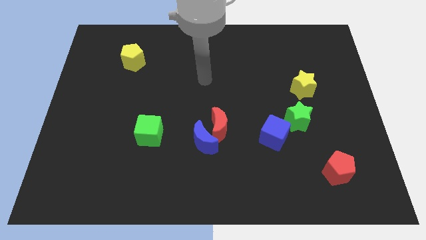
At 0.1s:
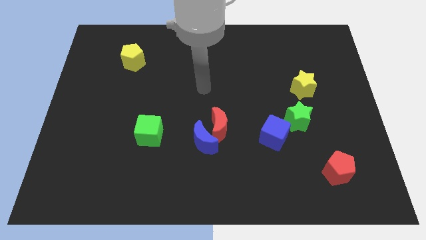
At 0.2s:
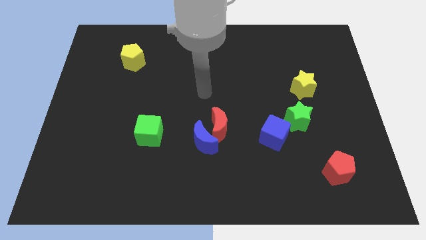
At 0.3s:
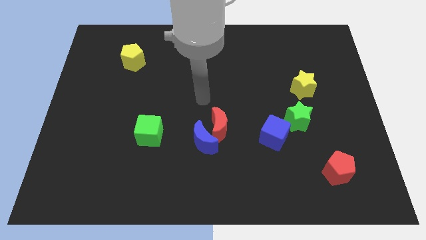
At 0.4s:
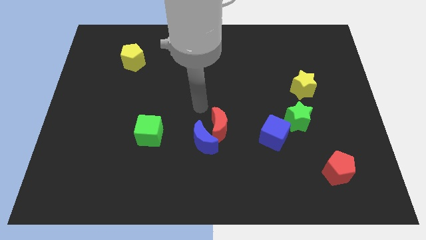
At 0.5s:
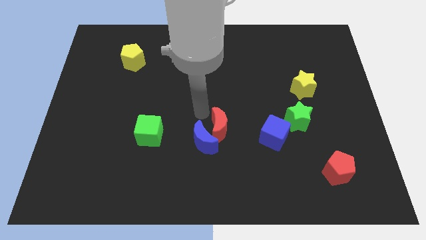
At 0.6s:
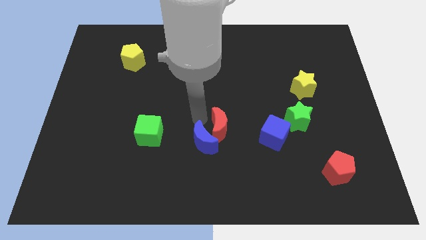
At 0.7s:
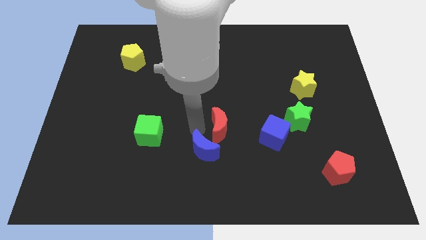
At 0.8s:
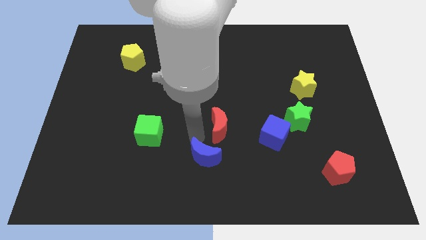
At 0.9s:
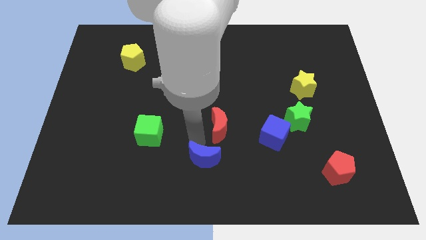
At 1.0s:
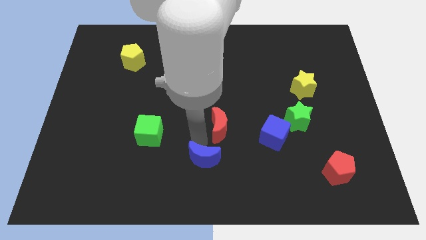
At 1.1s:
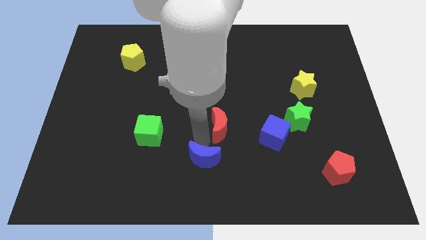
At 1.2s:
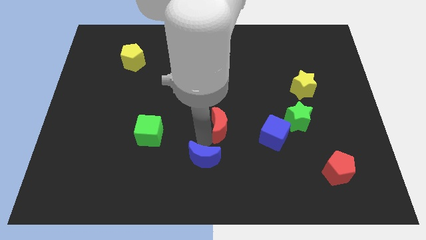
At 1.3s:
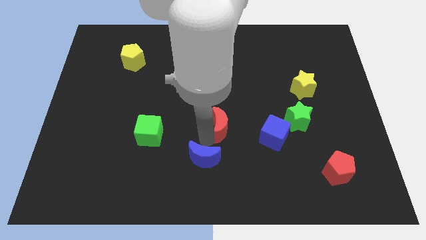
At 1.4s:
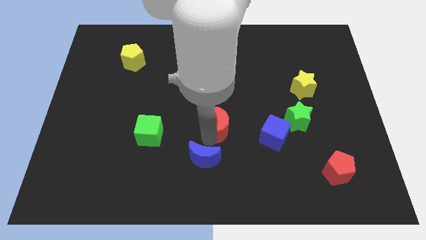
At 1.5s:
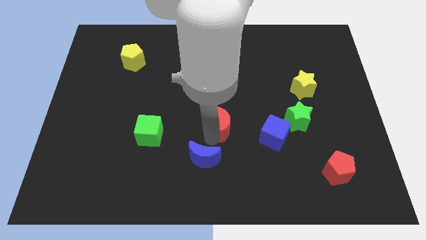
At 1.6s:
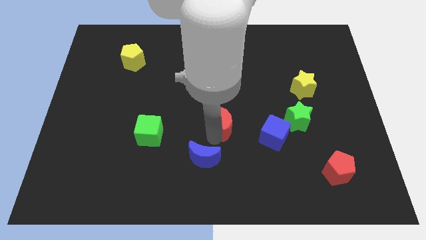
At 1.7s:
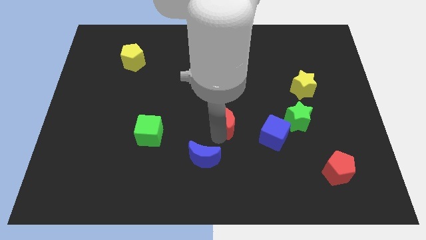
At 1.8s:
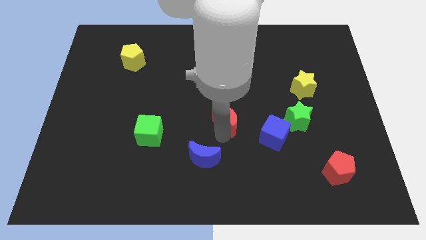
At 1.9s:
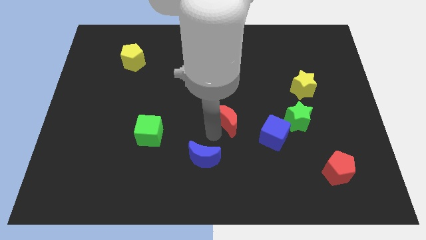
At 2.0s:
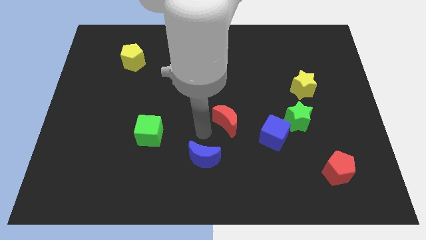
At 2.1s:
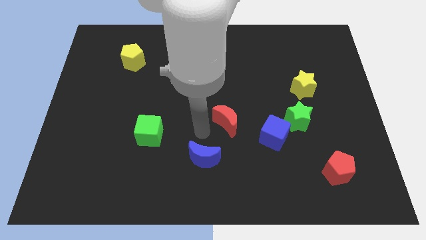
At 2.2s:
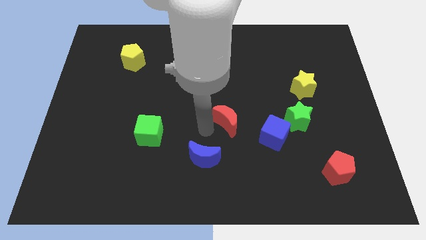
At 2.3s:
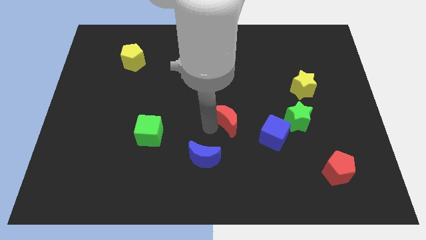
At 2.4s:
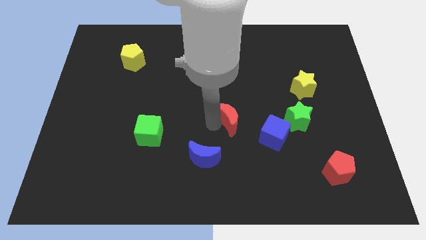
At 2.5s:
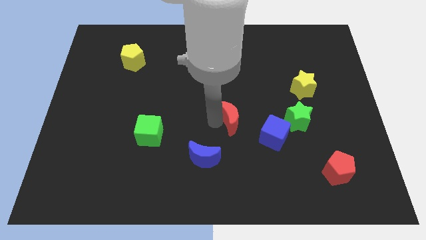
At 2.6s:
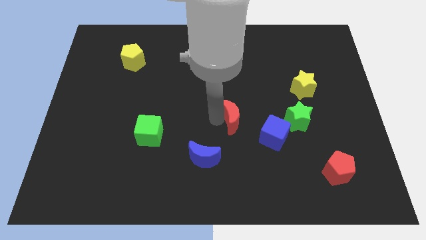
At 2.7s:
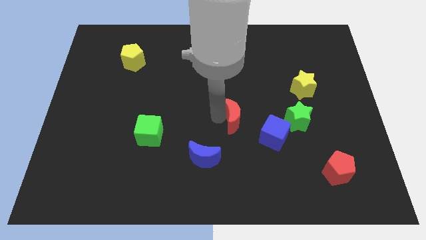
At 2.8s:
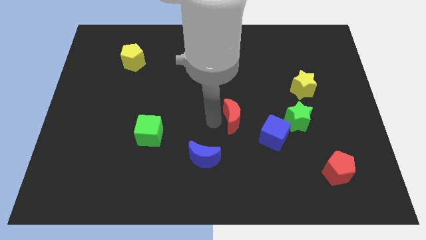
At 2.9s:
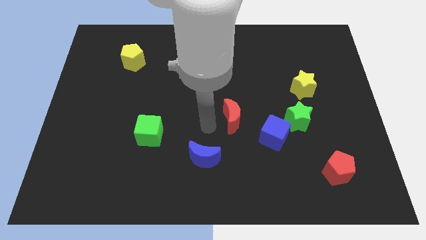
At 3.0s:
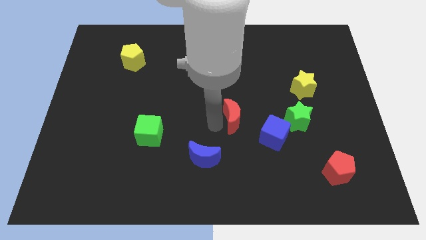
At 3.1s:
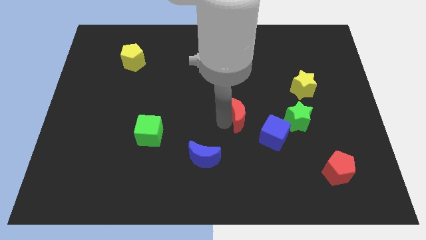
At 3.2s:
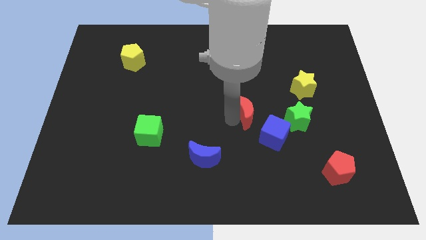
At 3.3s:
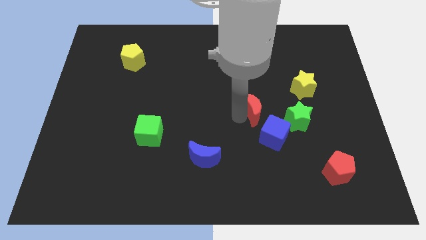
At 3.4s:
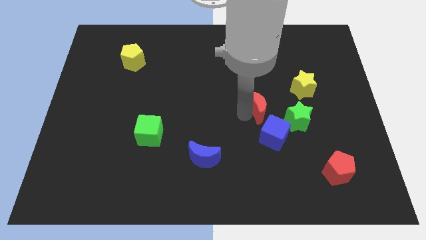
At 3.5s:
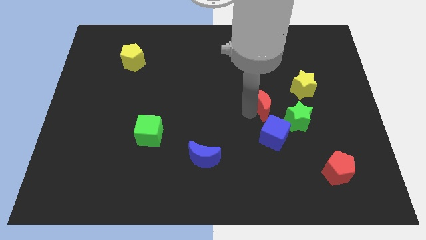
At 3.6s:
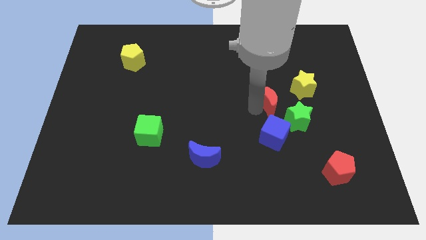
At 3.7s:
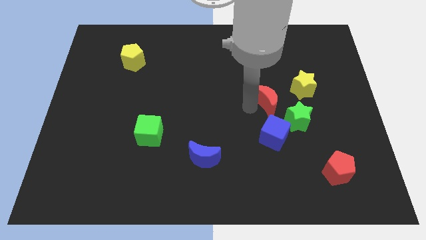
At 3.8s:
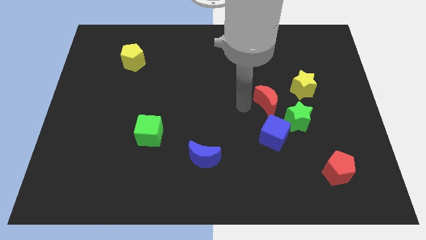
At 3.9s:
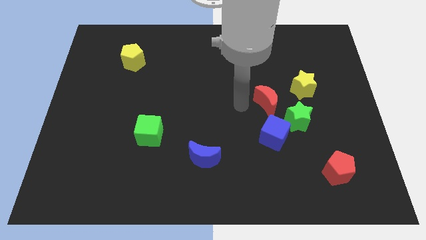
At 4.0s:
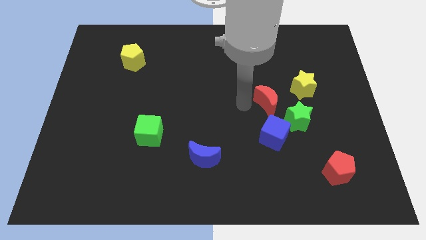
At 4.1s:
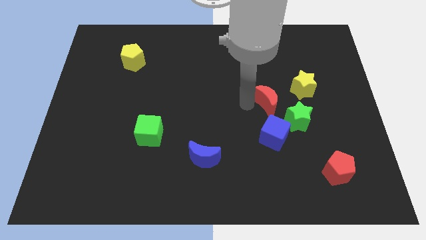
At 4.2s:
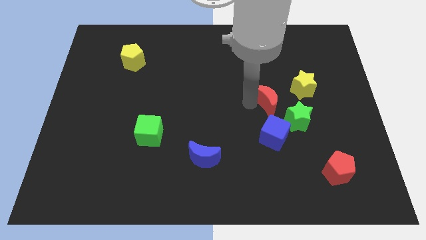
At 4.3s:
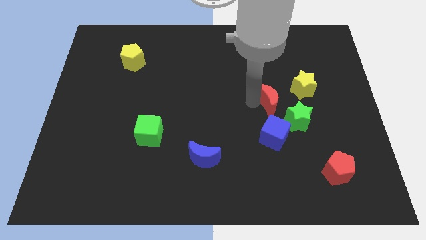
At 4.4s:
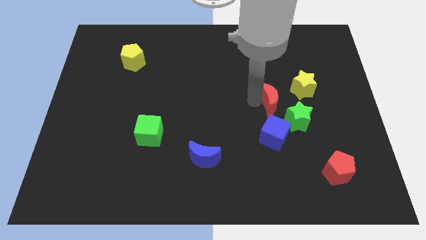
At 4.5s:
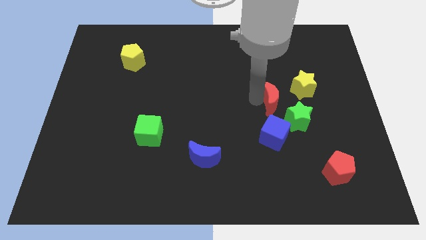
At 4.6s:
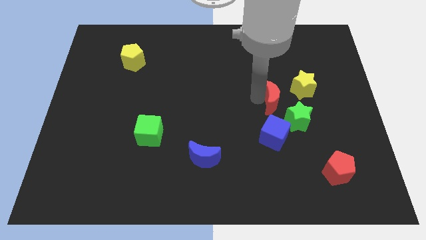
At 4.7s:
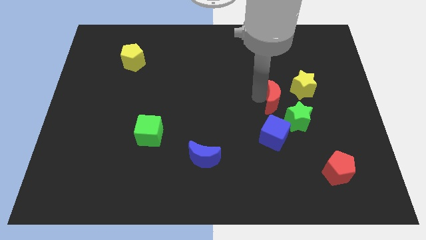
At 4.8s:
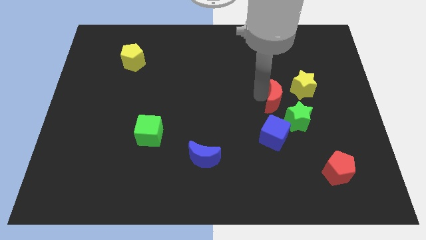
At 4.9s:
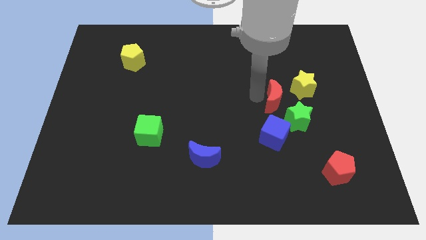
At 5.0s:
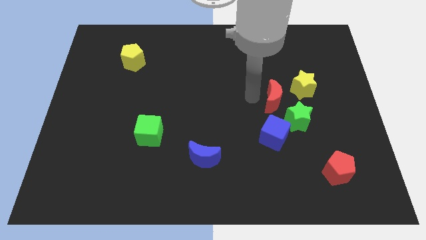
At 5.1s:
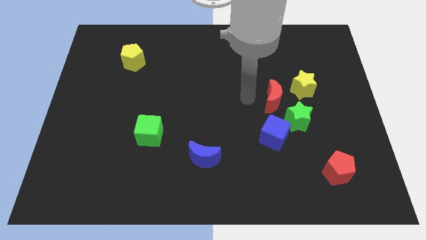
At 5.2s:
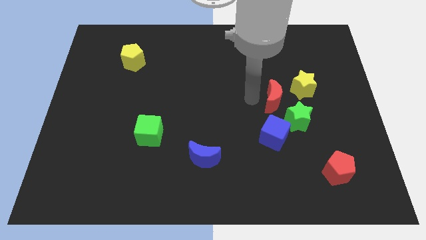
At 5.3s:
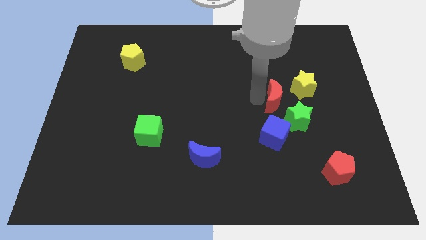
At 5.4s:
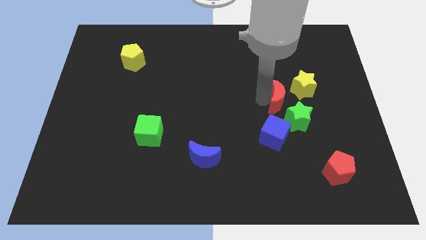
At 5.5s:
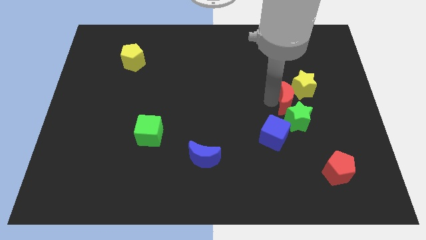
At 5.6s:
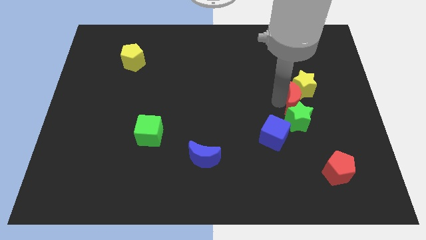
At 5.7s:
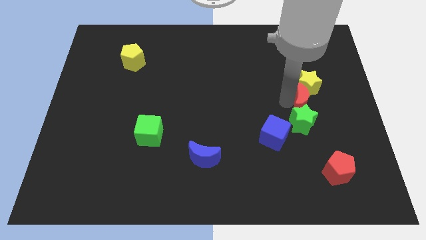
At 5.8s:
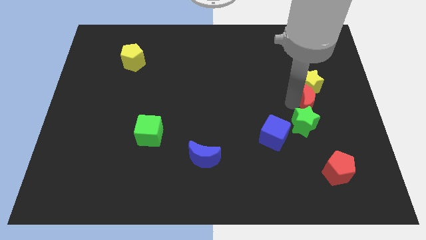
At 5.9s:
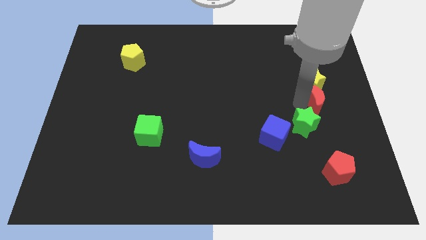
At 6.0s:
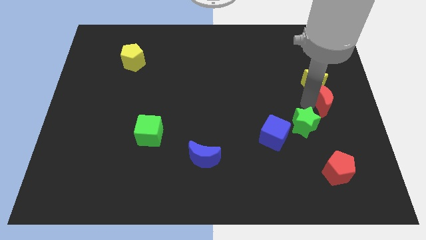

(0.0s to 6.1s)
put the red moon to the right side
